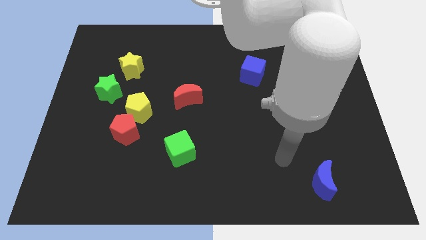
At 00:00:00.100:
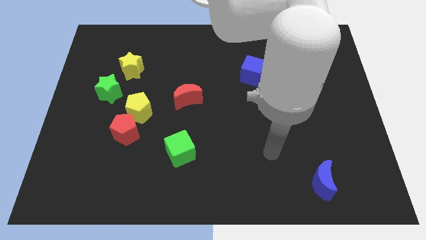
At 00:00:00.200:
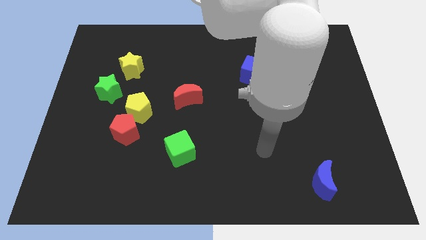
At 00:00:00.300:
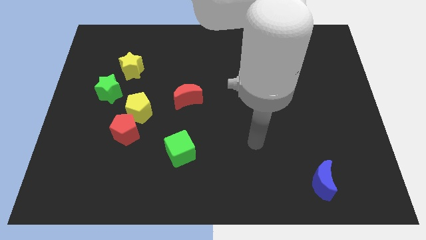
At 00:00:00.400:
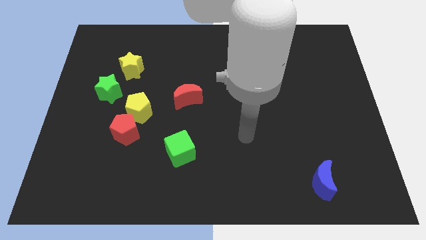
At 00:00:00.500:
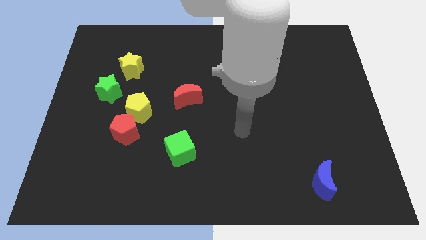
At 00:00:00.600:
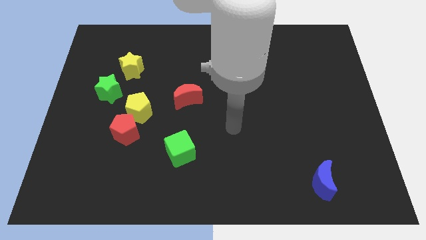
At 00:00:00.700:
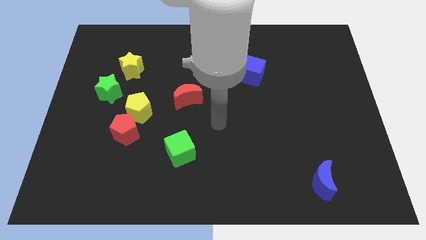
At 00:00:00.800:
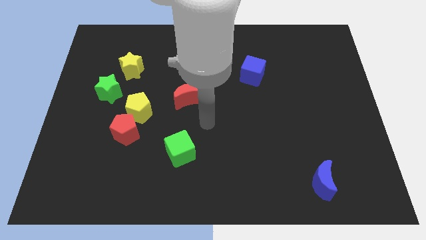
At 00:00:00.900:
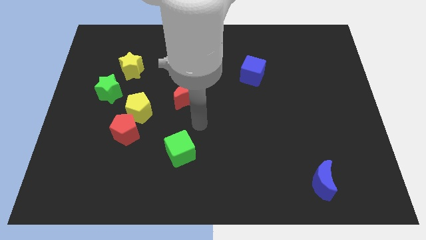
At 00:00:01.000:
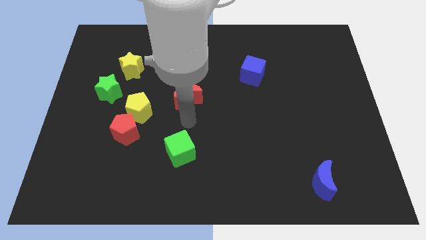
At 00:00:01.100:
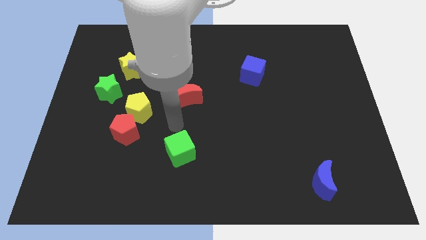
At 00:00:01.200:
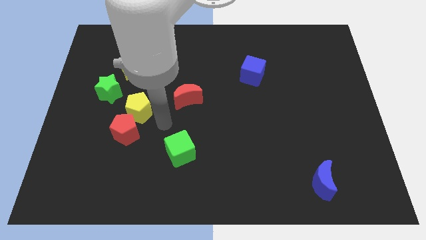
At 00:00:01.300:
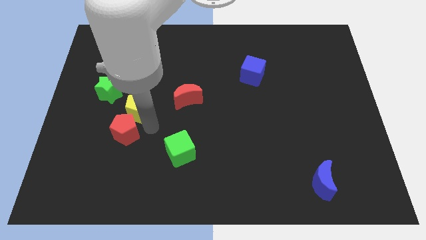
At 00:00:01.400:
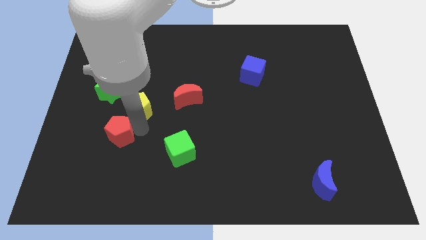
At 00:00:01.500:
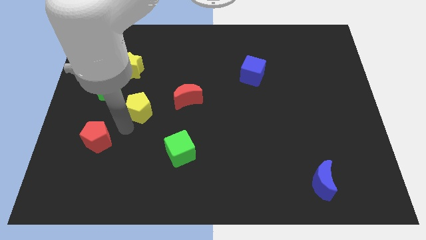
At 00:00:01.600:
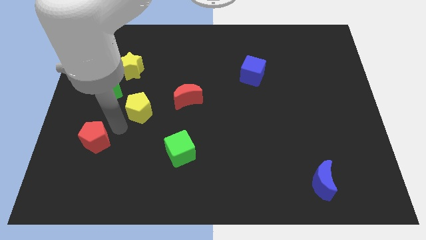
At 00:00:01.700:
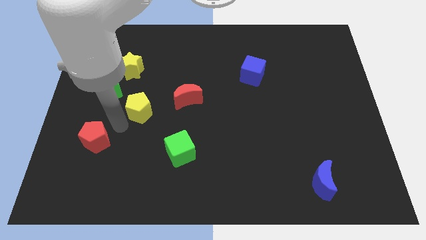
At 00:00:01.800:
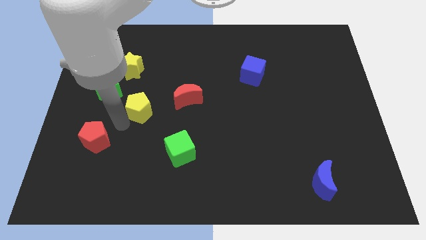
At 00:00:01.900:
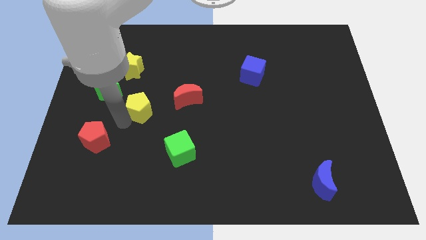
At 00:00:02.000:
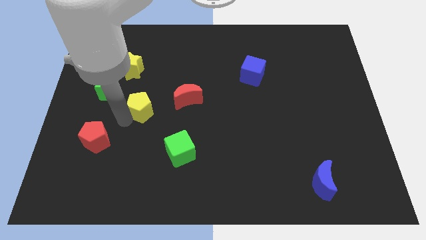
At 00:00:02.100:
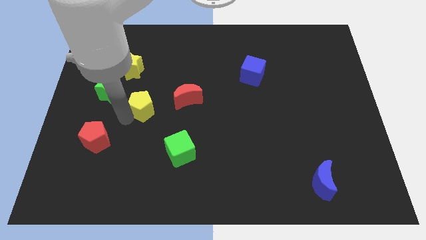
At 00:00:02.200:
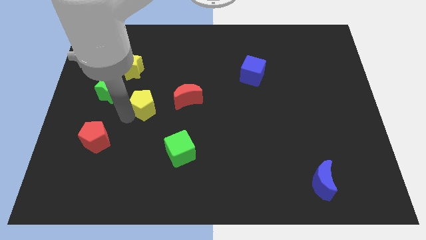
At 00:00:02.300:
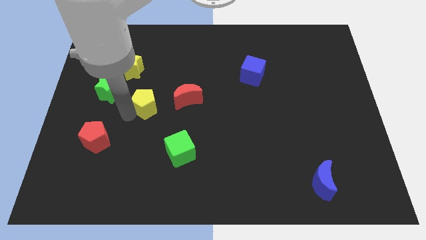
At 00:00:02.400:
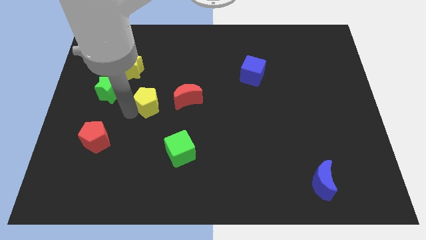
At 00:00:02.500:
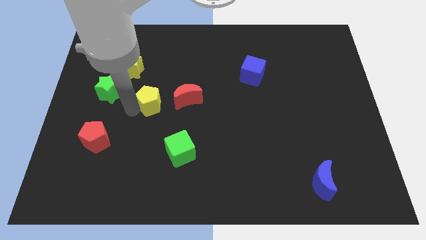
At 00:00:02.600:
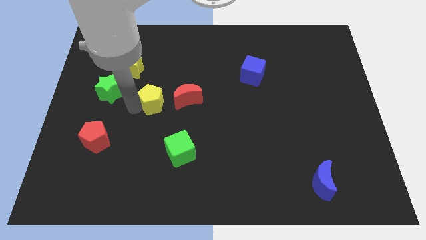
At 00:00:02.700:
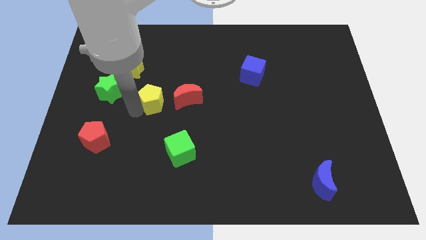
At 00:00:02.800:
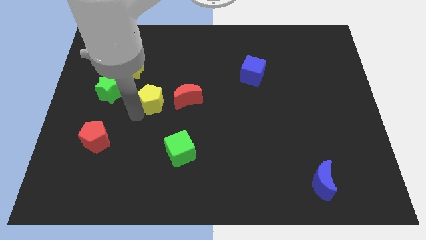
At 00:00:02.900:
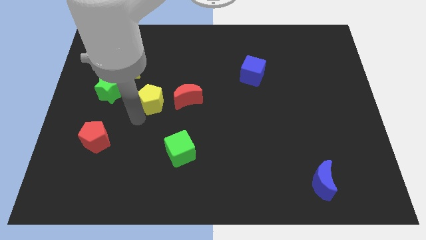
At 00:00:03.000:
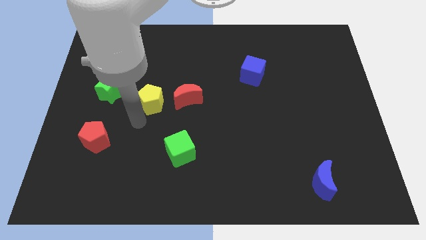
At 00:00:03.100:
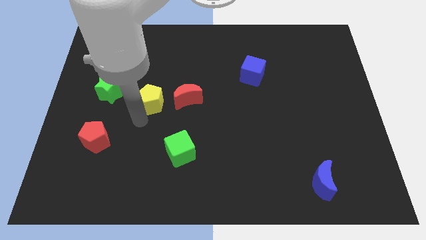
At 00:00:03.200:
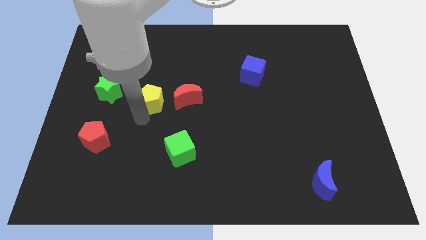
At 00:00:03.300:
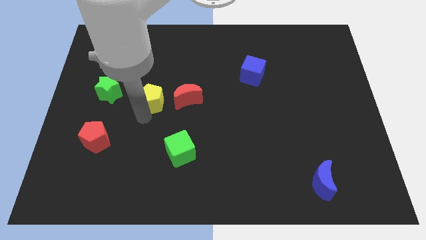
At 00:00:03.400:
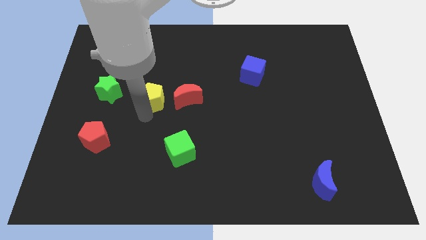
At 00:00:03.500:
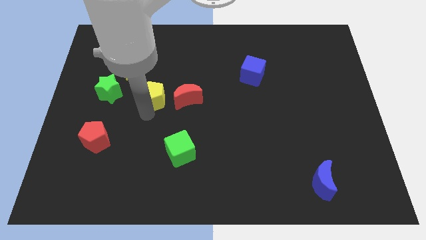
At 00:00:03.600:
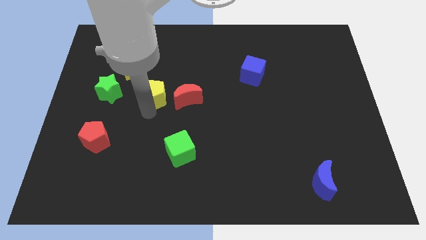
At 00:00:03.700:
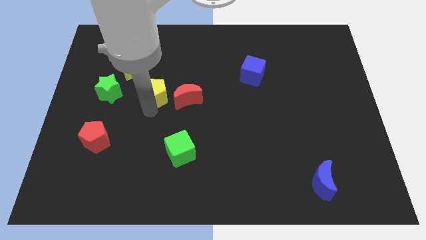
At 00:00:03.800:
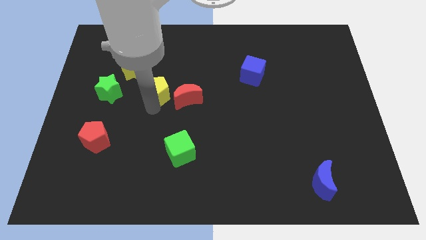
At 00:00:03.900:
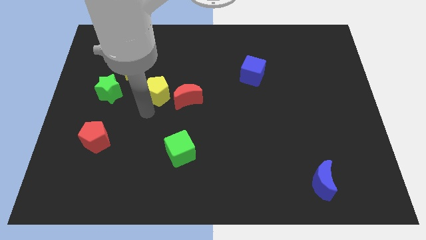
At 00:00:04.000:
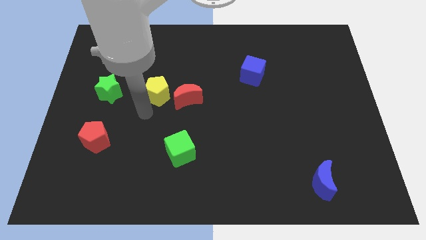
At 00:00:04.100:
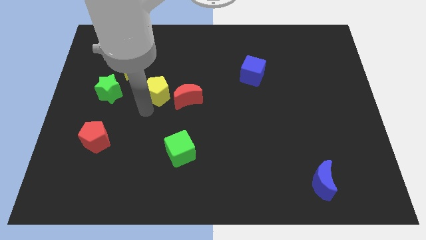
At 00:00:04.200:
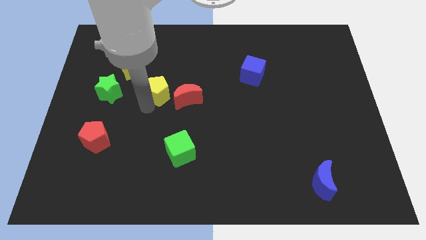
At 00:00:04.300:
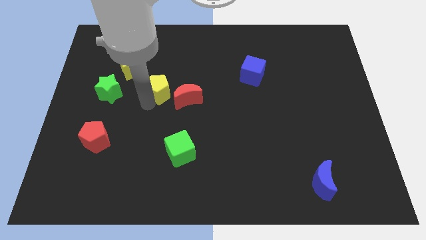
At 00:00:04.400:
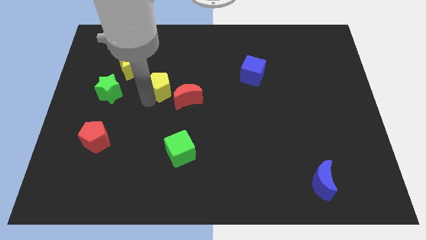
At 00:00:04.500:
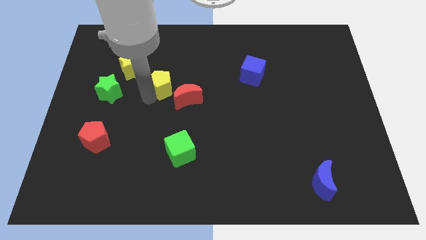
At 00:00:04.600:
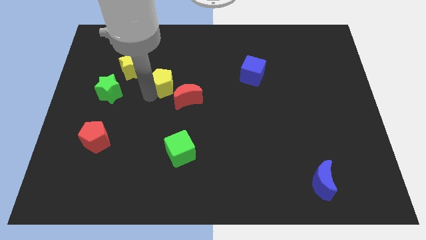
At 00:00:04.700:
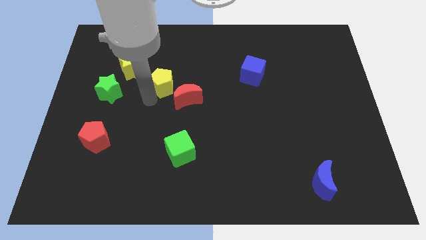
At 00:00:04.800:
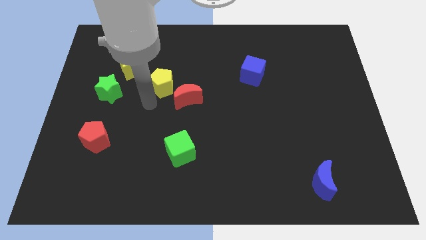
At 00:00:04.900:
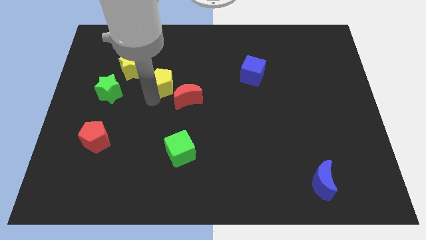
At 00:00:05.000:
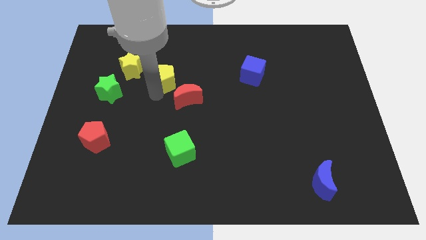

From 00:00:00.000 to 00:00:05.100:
put the yellow pentagon just right of the yellow star

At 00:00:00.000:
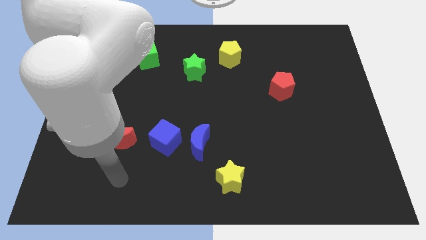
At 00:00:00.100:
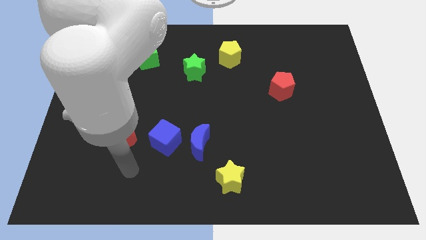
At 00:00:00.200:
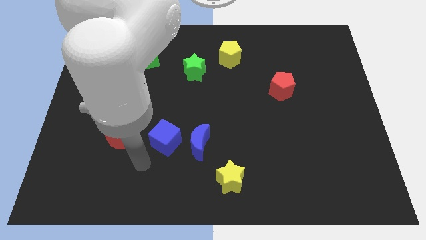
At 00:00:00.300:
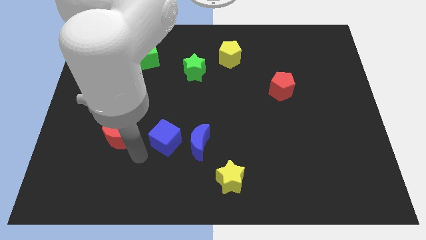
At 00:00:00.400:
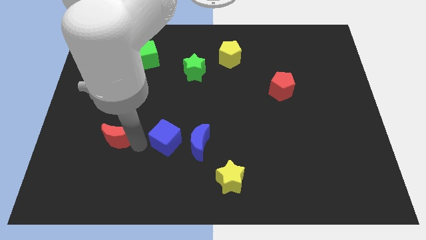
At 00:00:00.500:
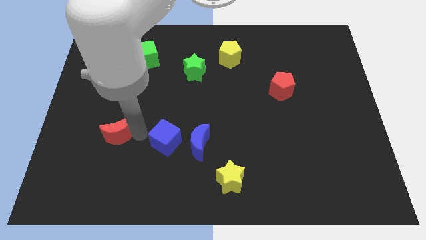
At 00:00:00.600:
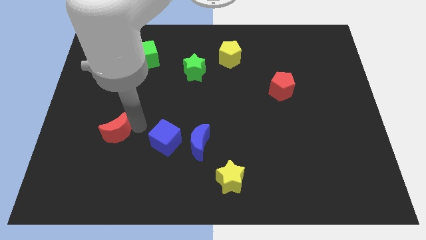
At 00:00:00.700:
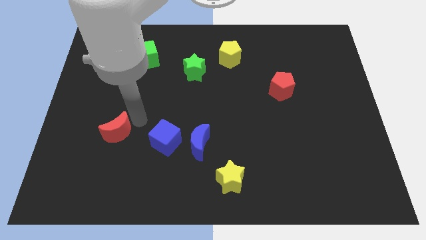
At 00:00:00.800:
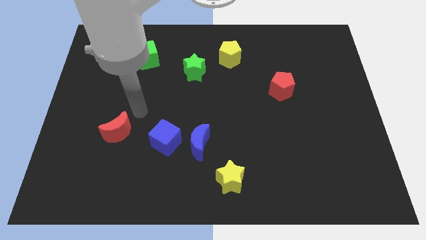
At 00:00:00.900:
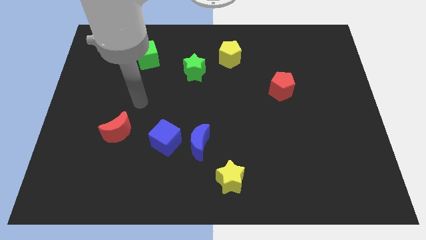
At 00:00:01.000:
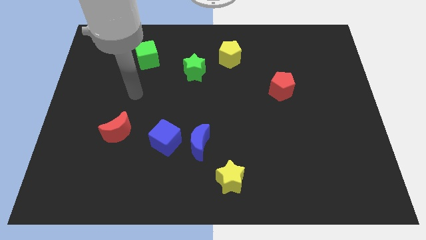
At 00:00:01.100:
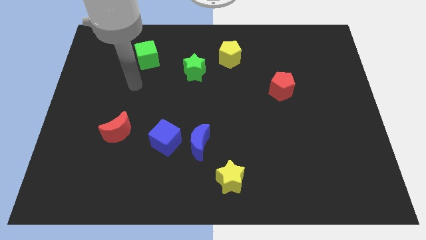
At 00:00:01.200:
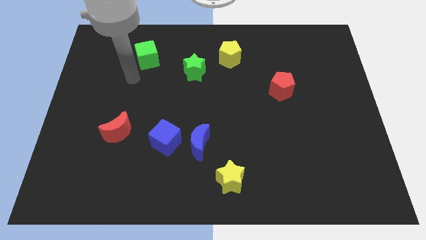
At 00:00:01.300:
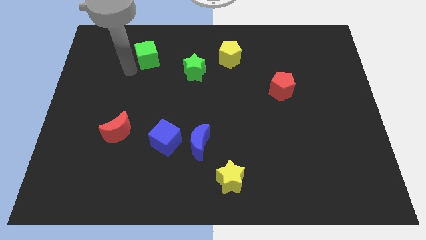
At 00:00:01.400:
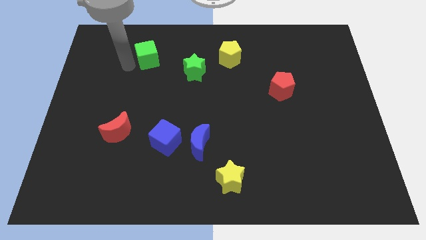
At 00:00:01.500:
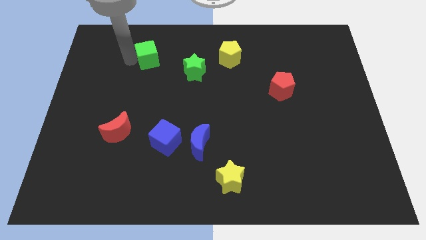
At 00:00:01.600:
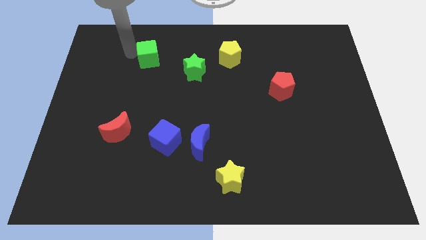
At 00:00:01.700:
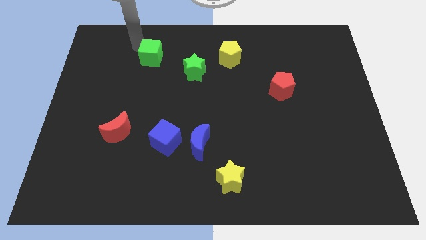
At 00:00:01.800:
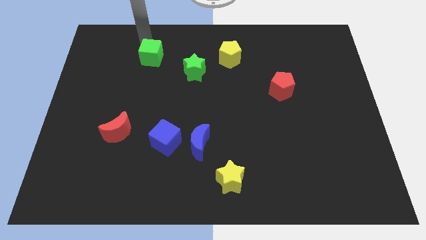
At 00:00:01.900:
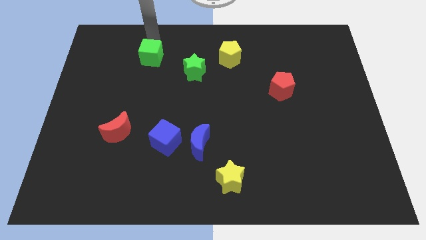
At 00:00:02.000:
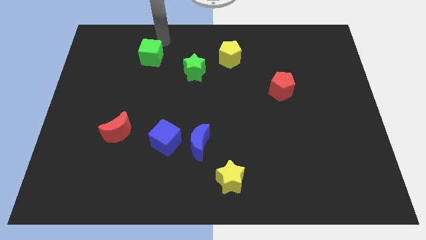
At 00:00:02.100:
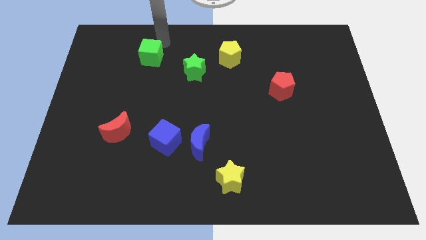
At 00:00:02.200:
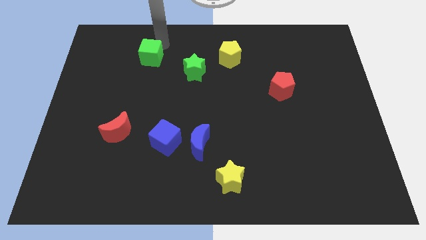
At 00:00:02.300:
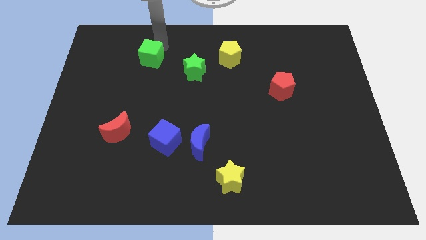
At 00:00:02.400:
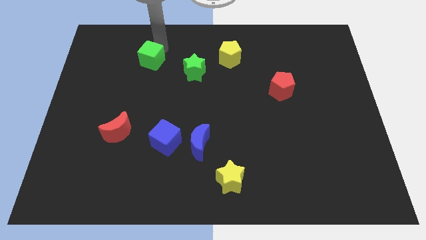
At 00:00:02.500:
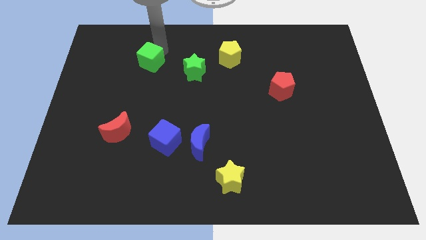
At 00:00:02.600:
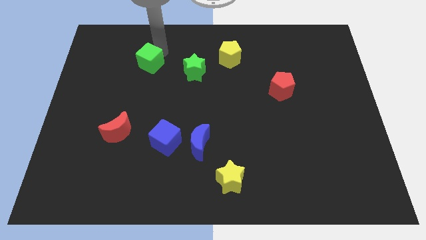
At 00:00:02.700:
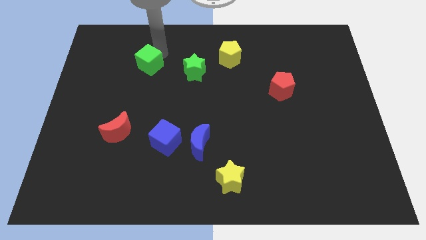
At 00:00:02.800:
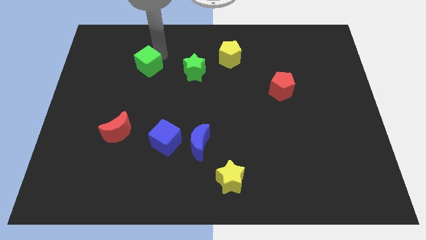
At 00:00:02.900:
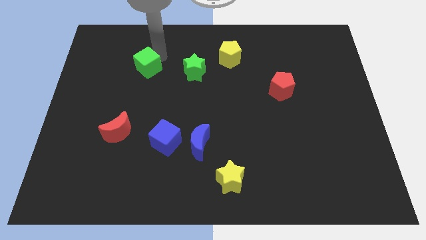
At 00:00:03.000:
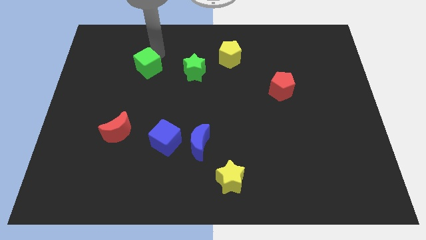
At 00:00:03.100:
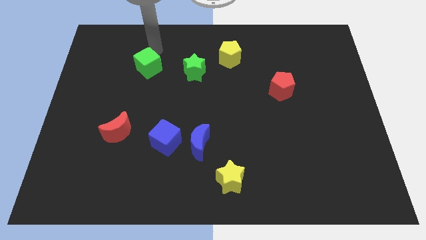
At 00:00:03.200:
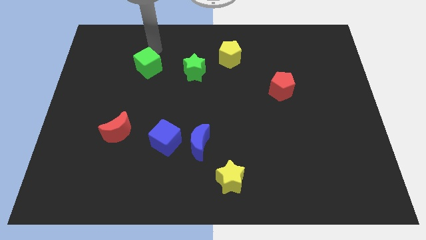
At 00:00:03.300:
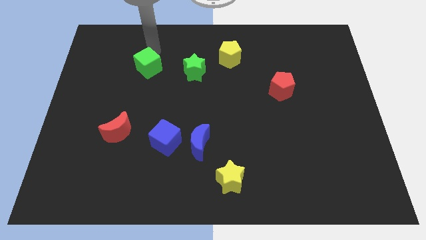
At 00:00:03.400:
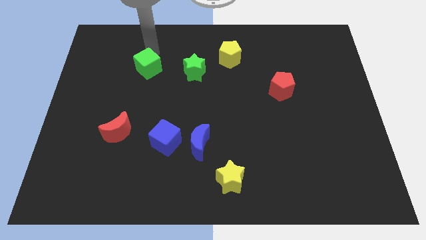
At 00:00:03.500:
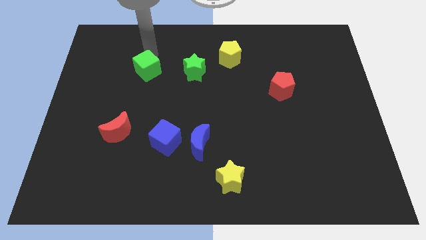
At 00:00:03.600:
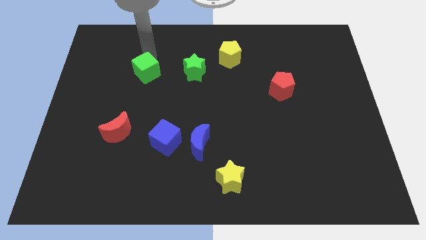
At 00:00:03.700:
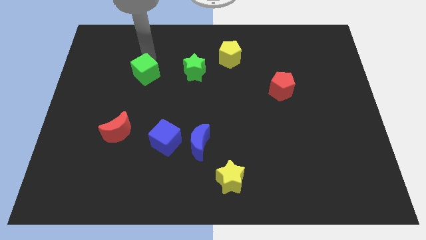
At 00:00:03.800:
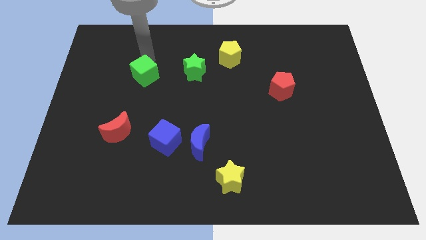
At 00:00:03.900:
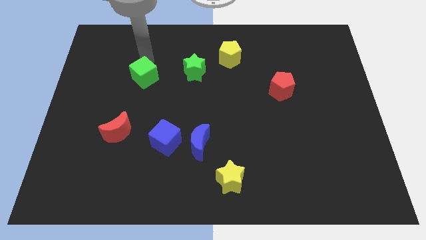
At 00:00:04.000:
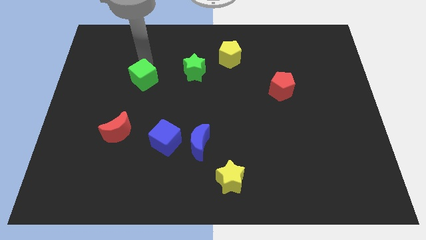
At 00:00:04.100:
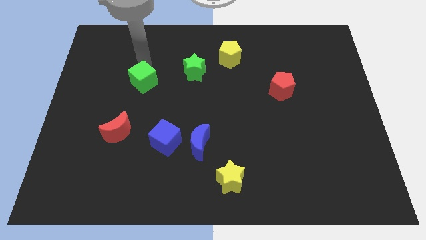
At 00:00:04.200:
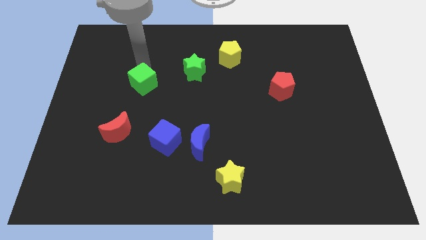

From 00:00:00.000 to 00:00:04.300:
move the green cube above the red moon
